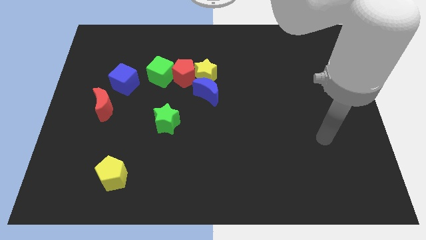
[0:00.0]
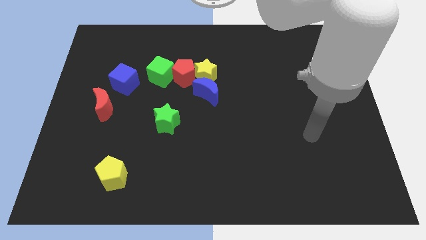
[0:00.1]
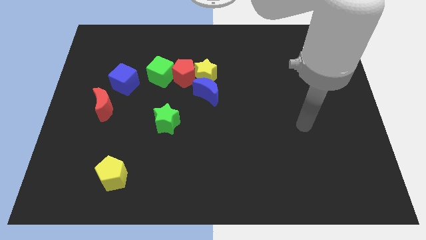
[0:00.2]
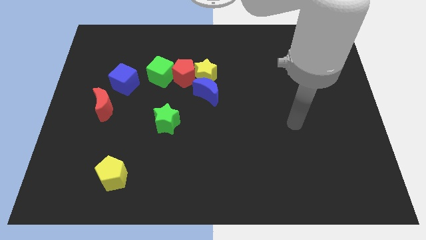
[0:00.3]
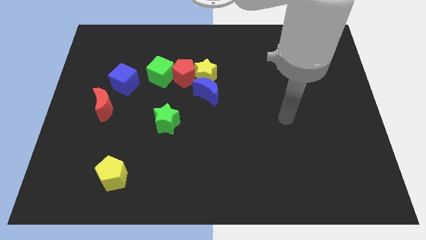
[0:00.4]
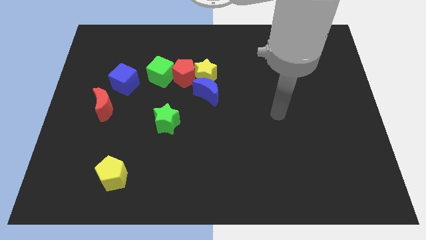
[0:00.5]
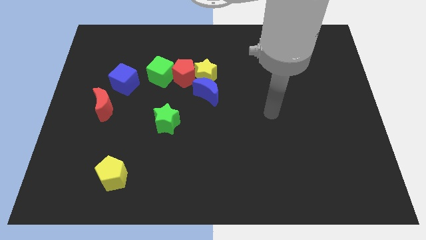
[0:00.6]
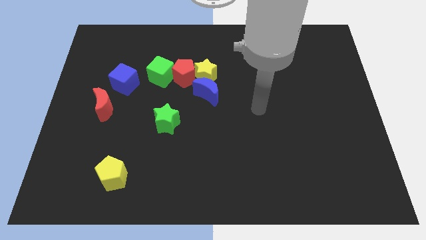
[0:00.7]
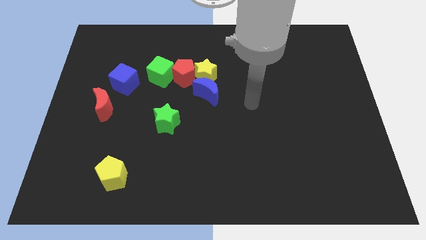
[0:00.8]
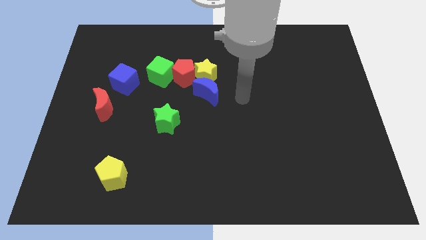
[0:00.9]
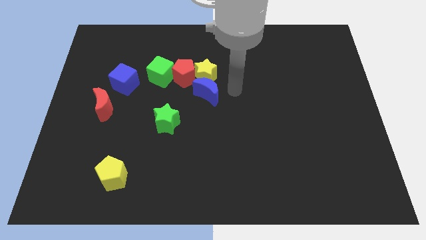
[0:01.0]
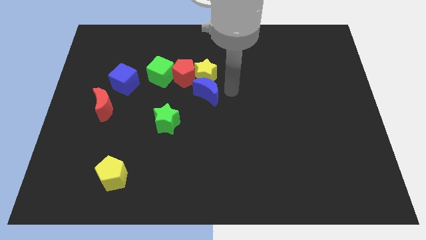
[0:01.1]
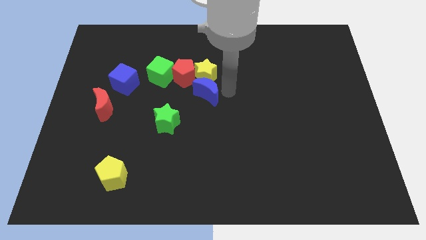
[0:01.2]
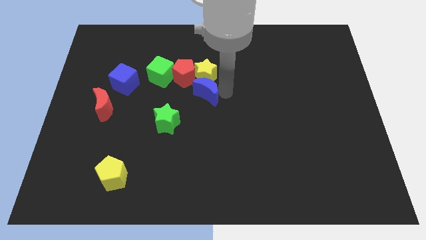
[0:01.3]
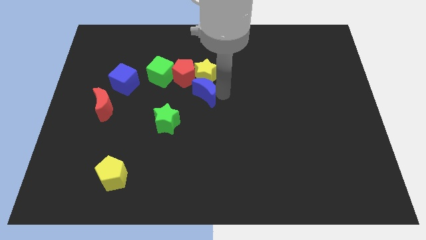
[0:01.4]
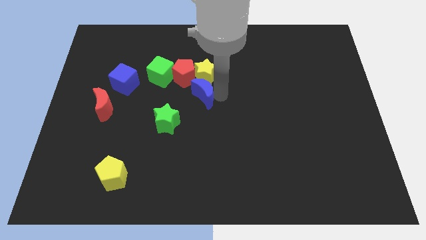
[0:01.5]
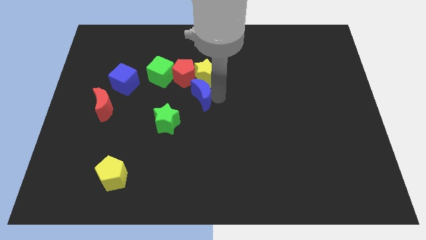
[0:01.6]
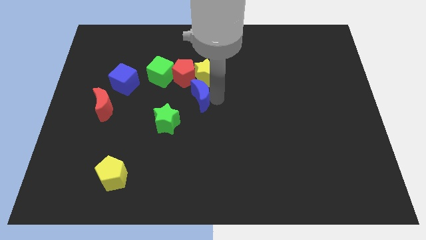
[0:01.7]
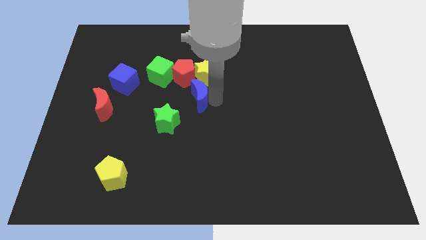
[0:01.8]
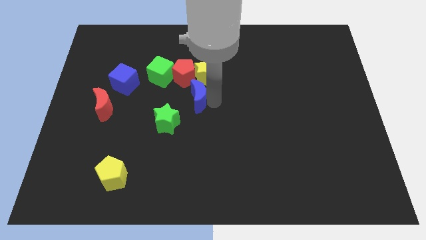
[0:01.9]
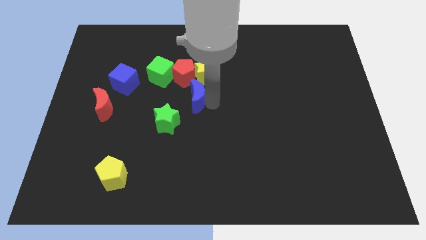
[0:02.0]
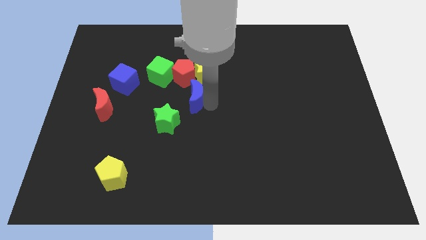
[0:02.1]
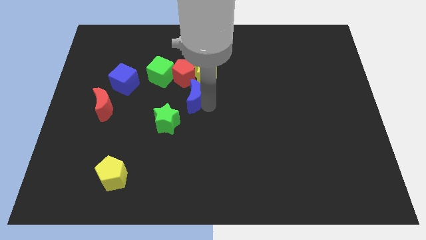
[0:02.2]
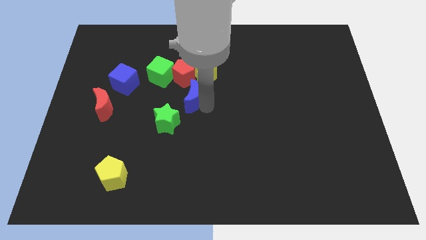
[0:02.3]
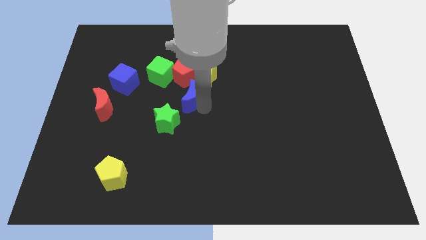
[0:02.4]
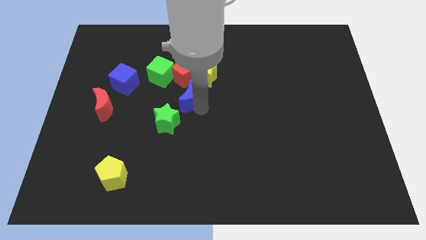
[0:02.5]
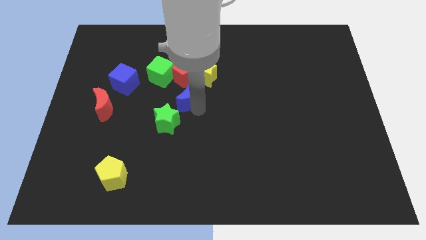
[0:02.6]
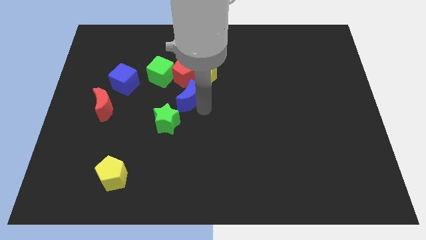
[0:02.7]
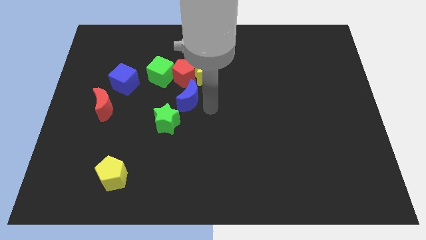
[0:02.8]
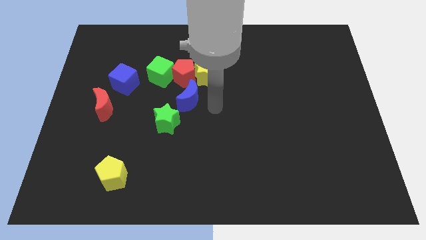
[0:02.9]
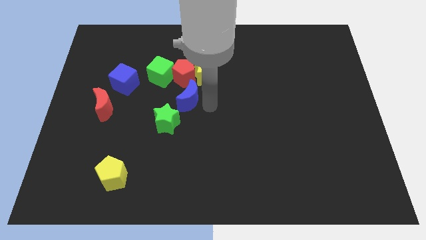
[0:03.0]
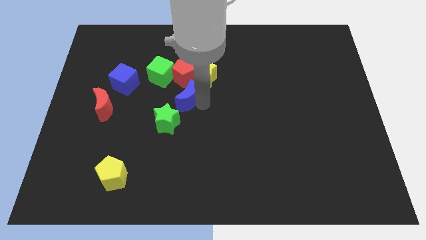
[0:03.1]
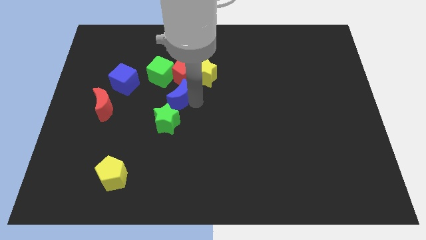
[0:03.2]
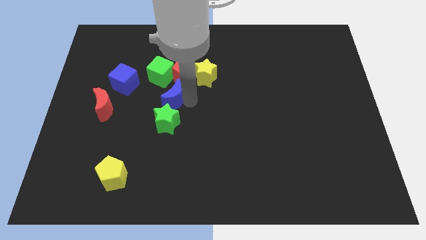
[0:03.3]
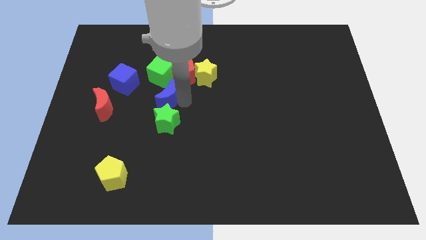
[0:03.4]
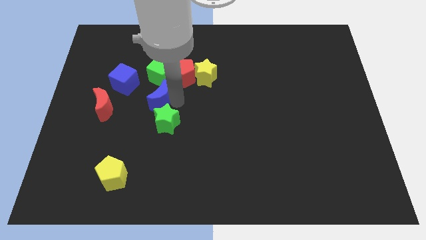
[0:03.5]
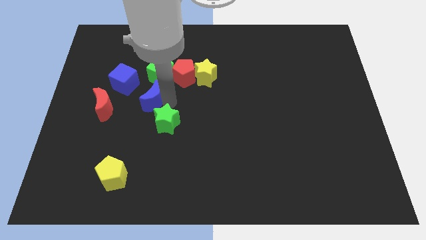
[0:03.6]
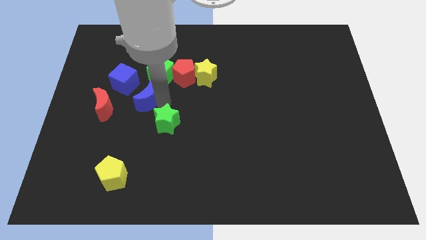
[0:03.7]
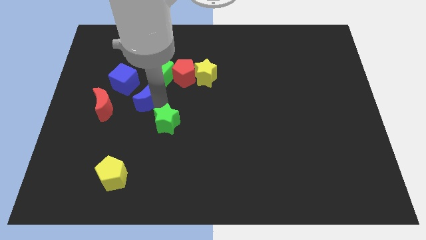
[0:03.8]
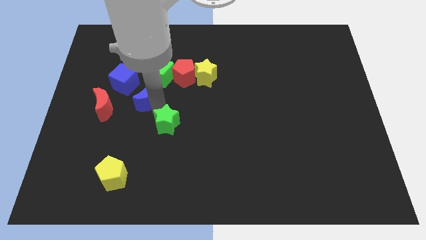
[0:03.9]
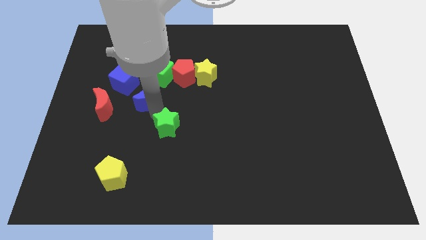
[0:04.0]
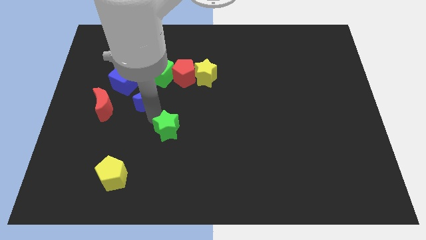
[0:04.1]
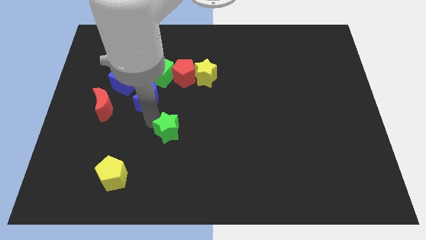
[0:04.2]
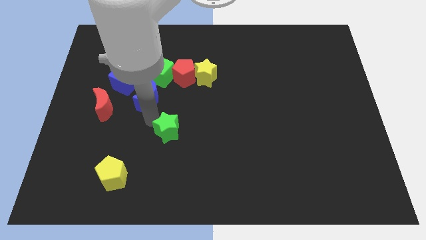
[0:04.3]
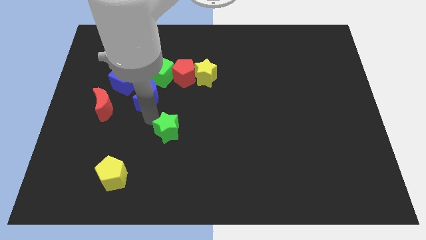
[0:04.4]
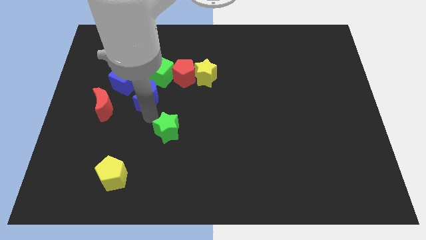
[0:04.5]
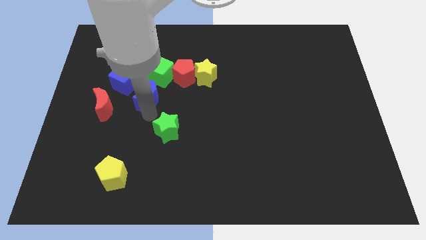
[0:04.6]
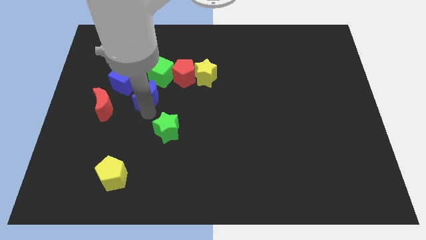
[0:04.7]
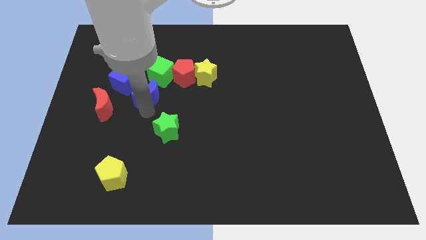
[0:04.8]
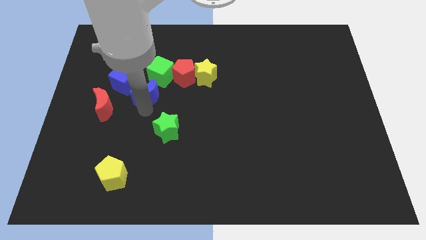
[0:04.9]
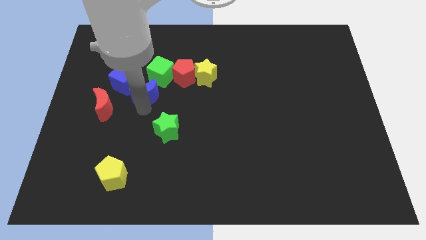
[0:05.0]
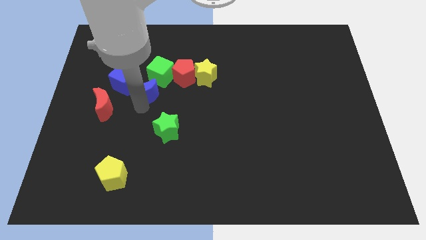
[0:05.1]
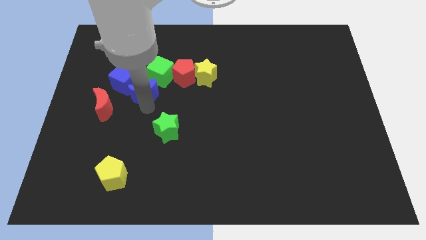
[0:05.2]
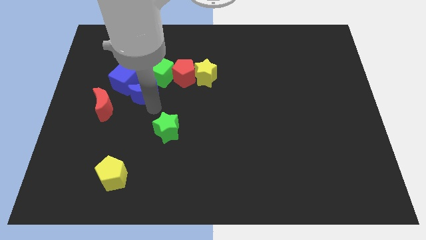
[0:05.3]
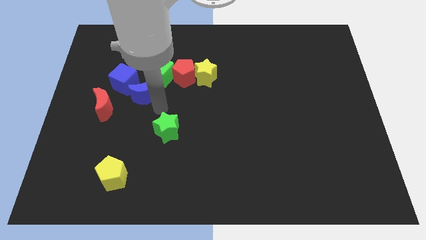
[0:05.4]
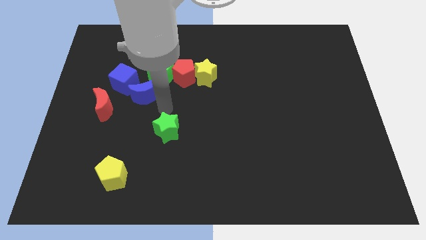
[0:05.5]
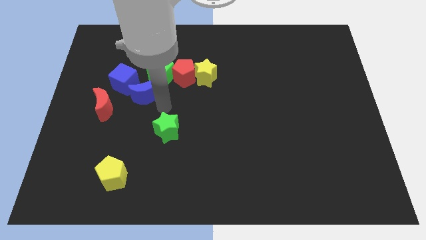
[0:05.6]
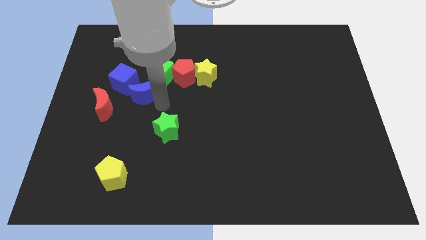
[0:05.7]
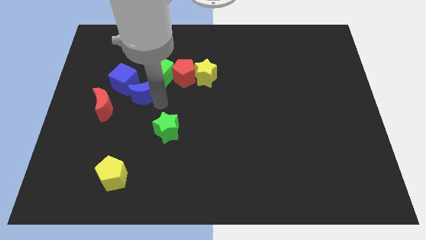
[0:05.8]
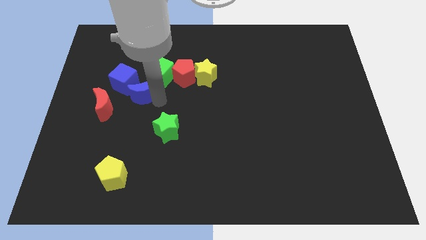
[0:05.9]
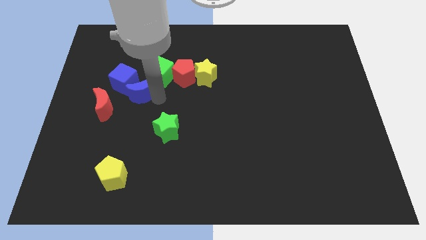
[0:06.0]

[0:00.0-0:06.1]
put the blue moon next to the blue cube

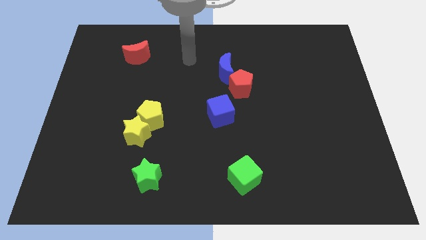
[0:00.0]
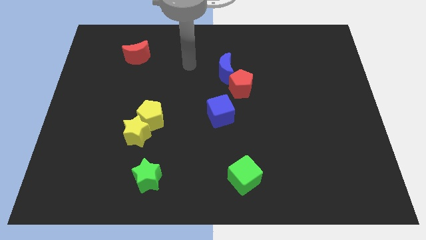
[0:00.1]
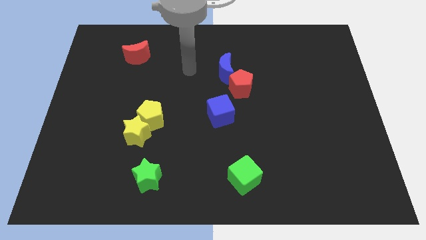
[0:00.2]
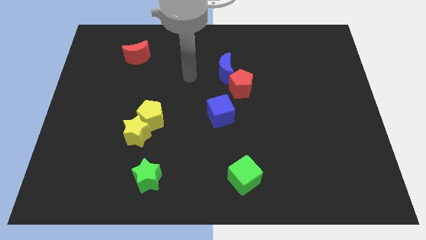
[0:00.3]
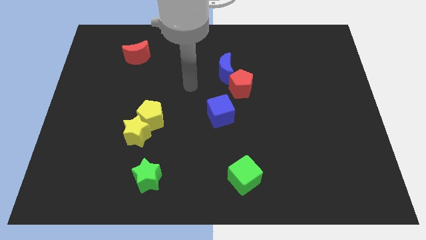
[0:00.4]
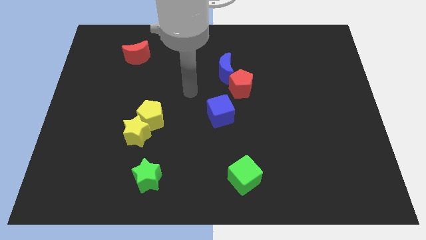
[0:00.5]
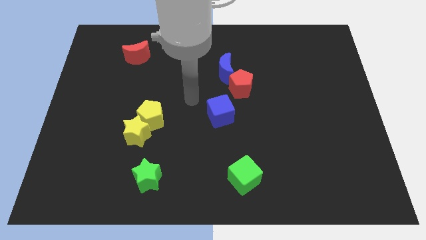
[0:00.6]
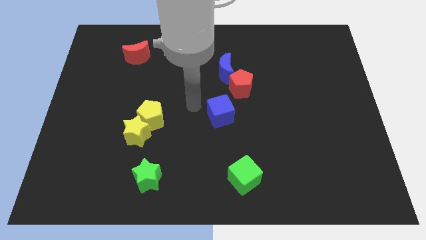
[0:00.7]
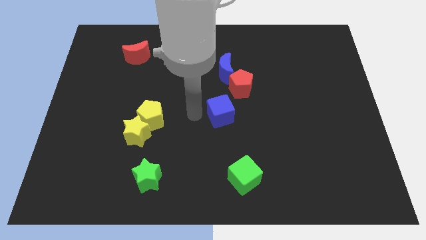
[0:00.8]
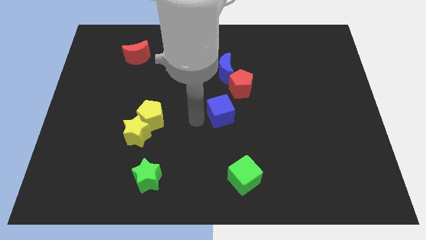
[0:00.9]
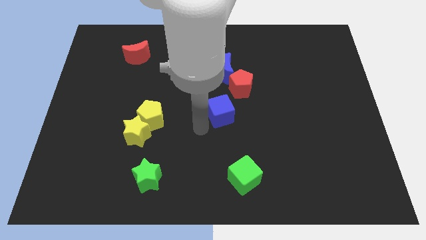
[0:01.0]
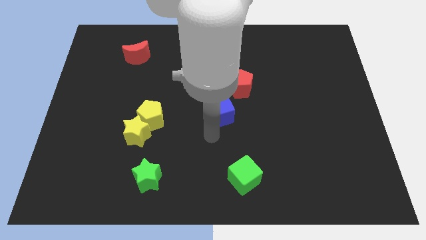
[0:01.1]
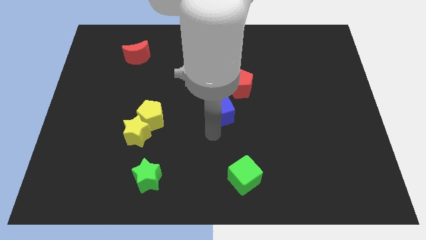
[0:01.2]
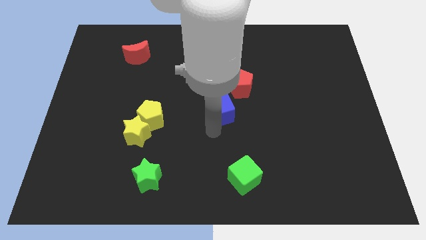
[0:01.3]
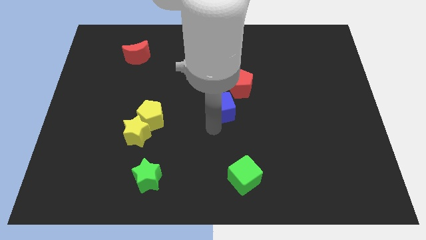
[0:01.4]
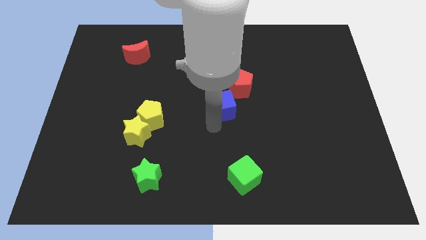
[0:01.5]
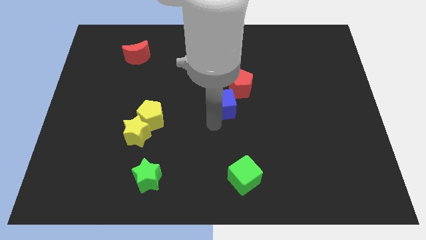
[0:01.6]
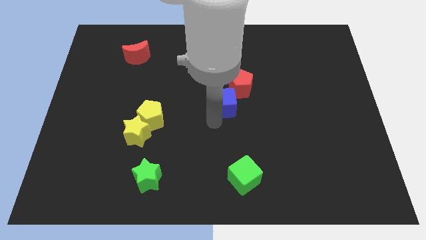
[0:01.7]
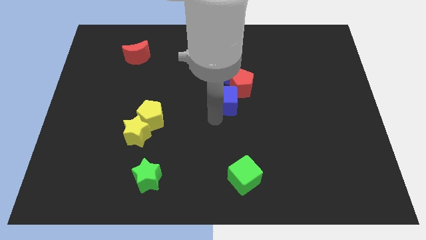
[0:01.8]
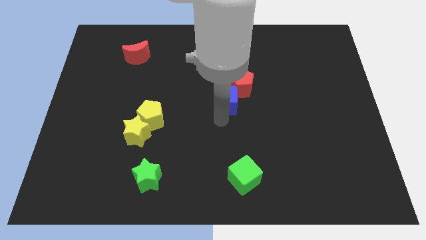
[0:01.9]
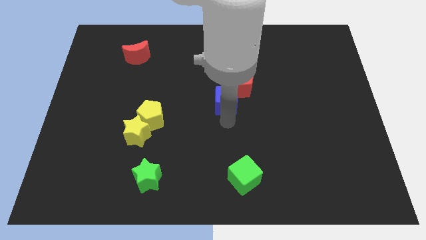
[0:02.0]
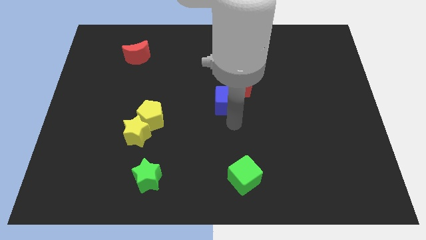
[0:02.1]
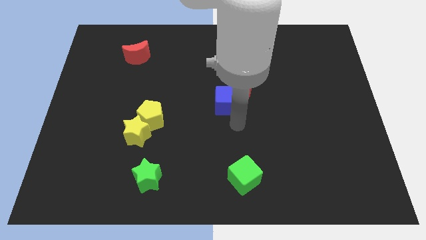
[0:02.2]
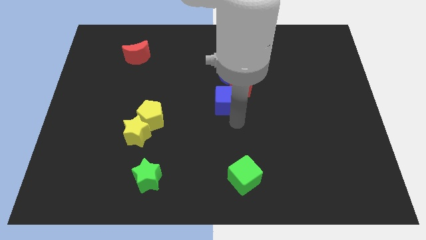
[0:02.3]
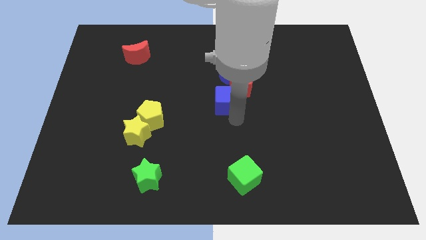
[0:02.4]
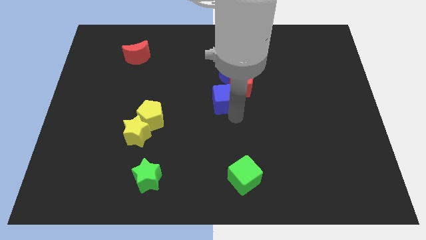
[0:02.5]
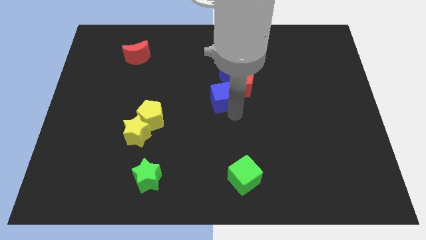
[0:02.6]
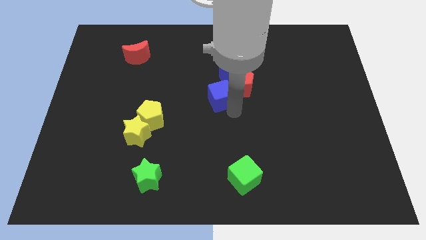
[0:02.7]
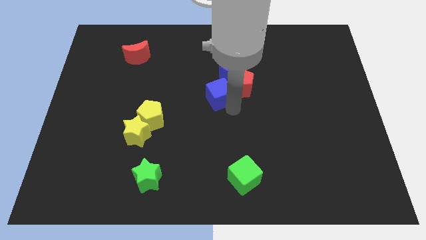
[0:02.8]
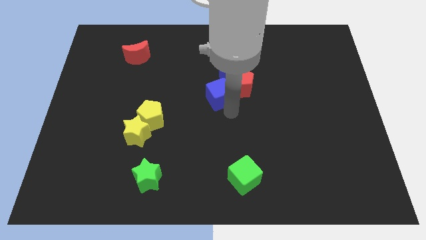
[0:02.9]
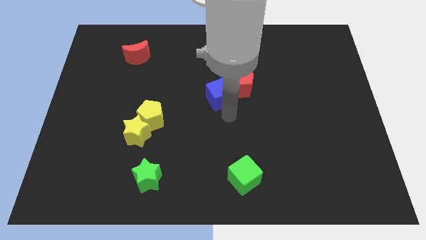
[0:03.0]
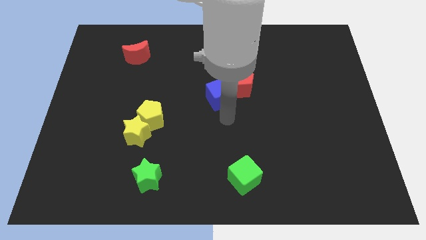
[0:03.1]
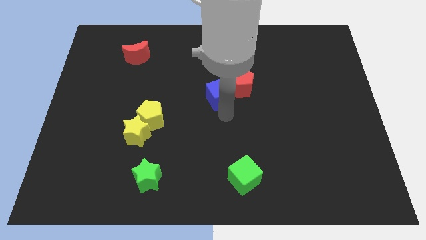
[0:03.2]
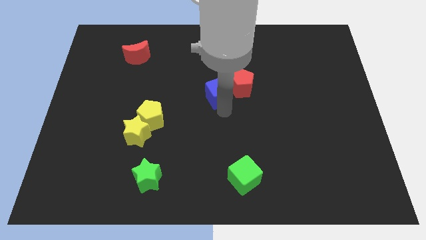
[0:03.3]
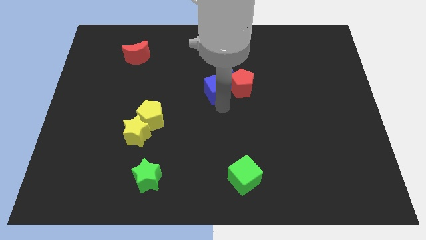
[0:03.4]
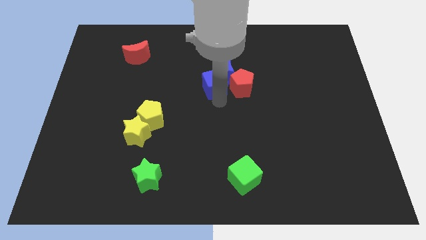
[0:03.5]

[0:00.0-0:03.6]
move the blue cube close to the blue moon
